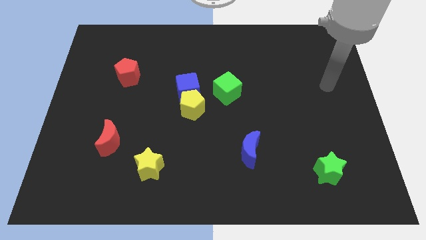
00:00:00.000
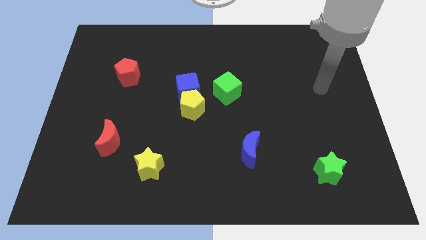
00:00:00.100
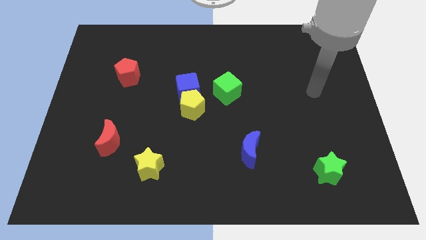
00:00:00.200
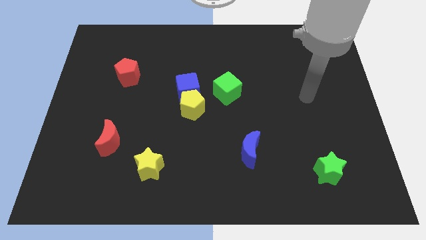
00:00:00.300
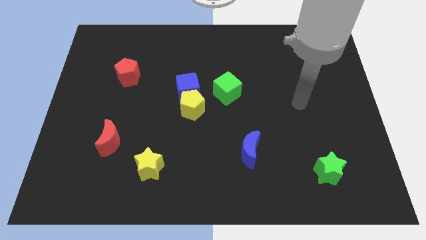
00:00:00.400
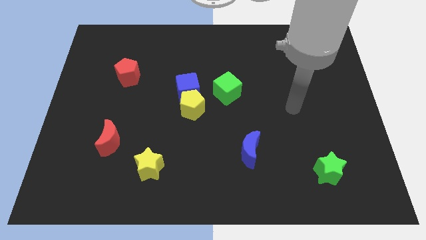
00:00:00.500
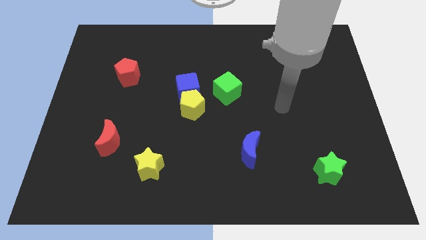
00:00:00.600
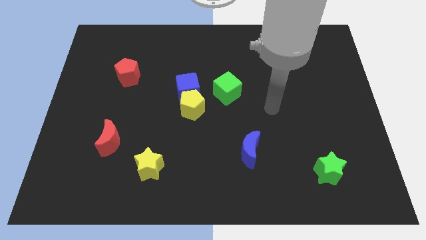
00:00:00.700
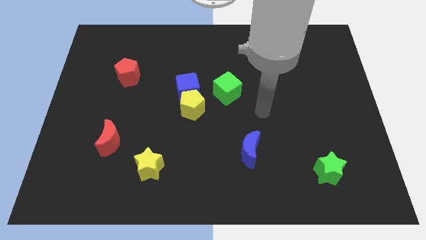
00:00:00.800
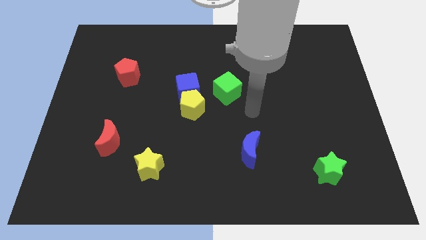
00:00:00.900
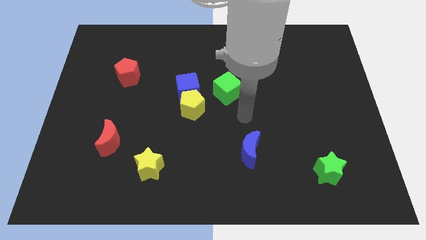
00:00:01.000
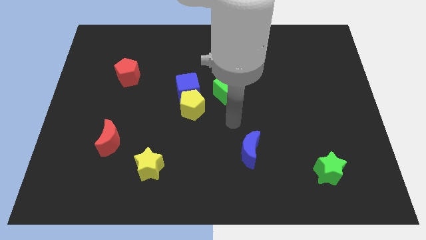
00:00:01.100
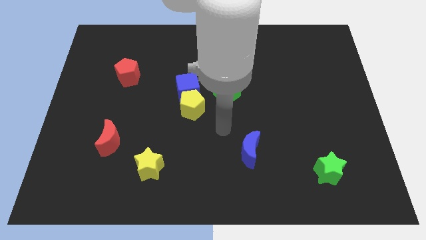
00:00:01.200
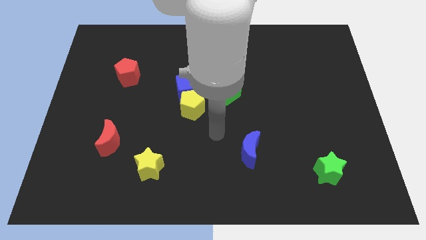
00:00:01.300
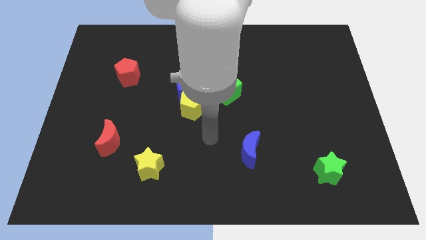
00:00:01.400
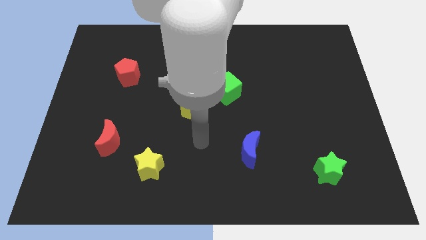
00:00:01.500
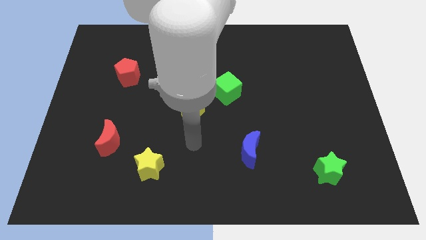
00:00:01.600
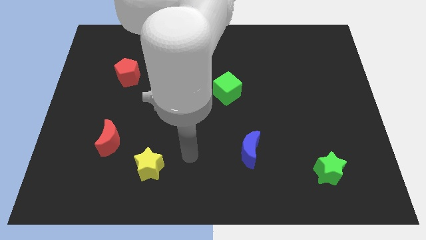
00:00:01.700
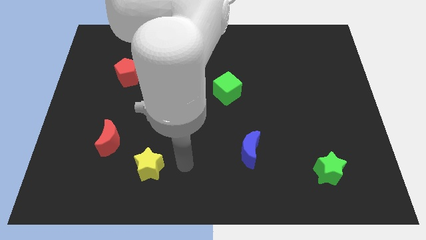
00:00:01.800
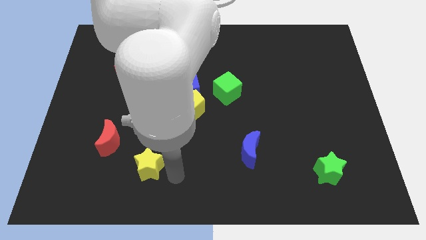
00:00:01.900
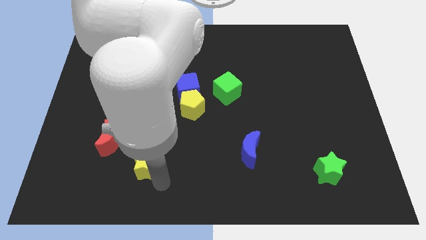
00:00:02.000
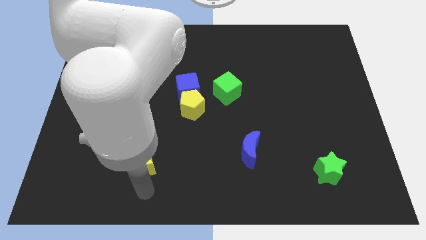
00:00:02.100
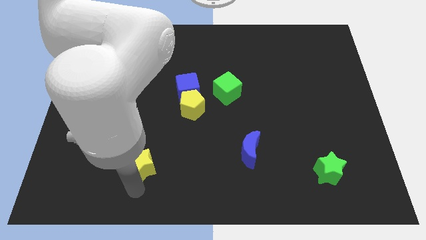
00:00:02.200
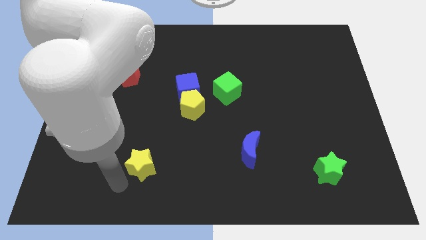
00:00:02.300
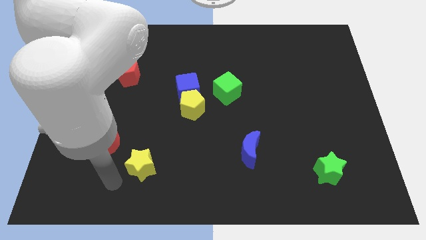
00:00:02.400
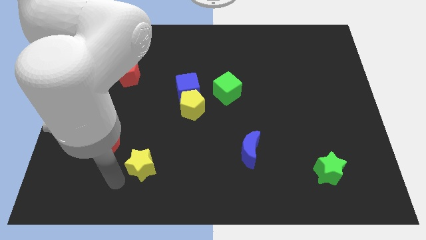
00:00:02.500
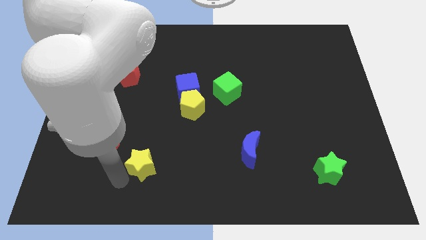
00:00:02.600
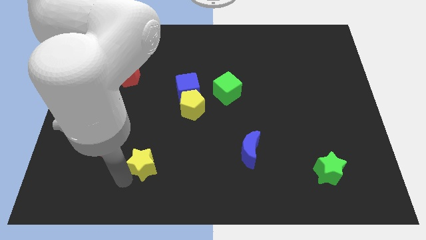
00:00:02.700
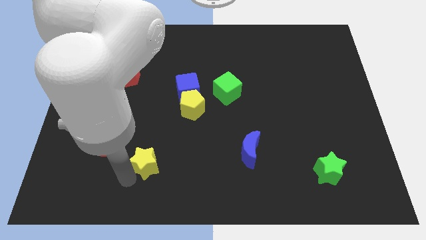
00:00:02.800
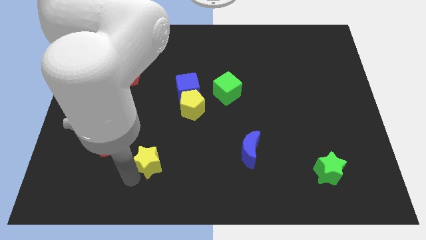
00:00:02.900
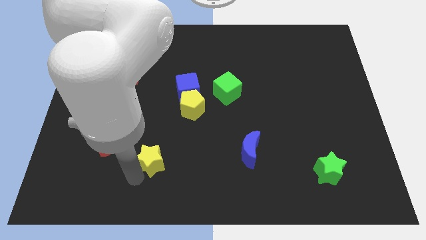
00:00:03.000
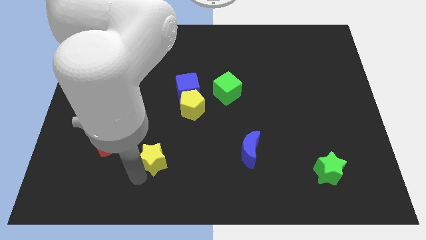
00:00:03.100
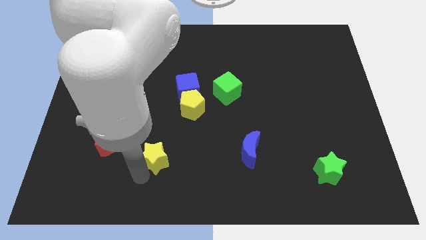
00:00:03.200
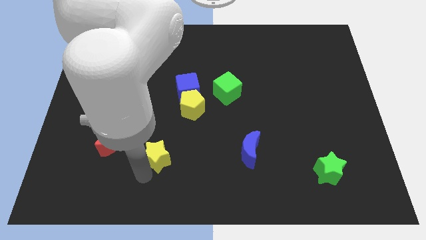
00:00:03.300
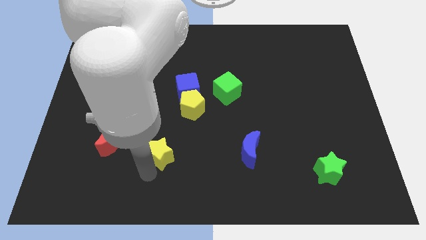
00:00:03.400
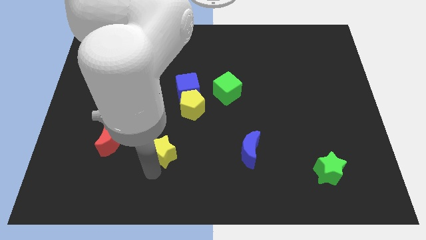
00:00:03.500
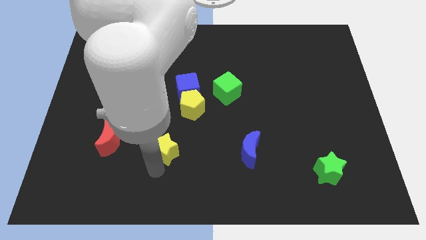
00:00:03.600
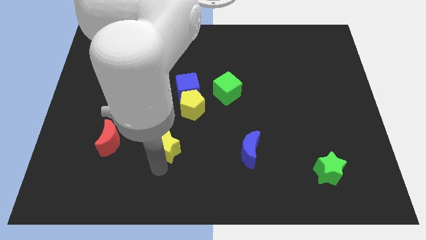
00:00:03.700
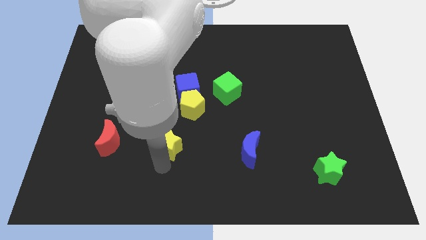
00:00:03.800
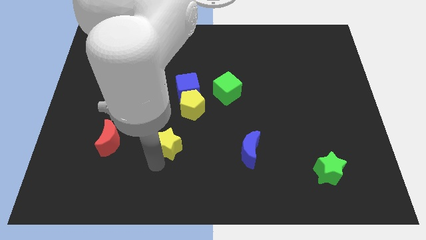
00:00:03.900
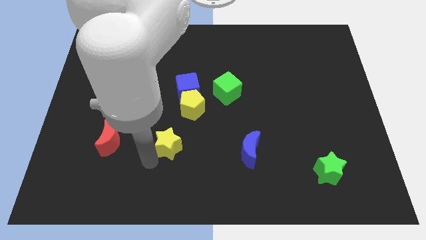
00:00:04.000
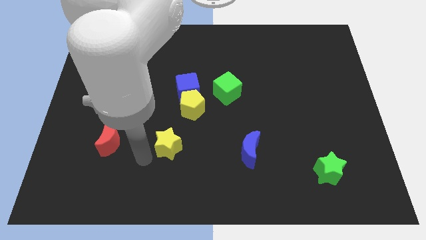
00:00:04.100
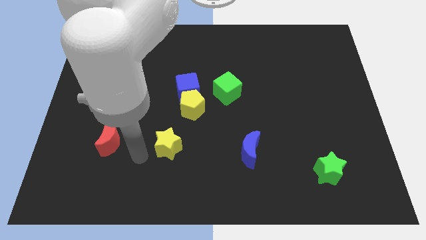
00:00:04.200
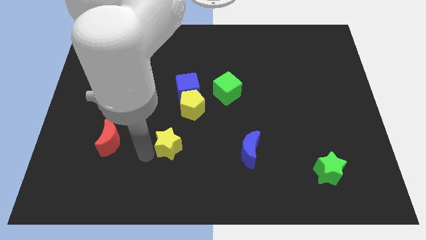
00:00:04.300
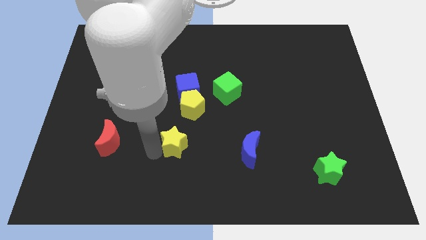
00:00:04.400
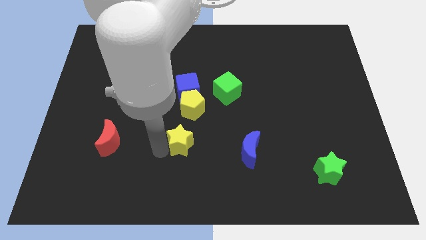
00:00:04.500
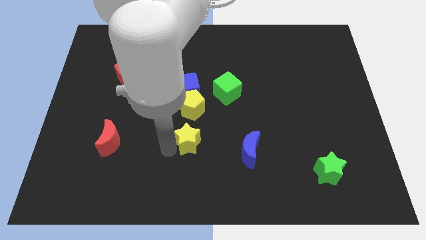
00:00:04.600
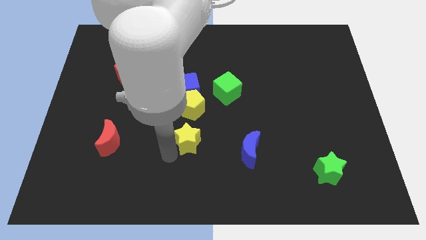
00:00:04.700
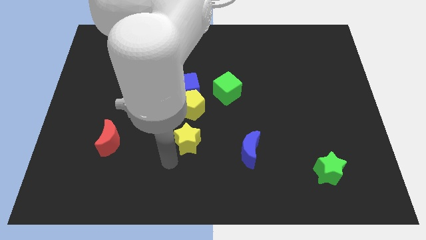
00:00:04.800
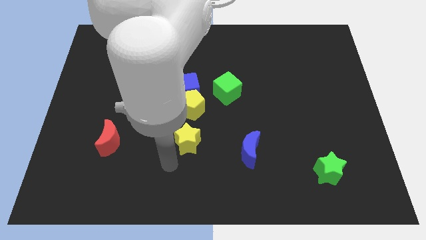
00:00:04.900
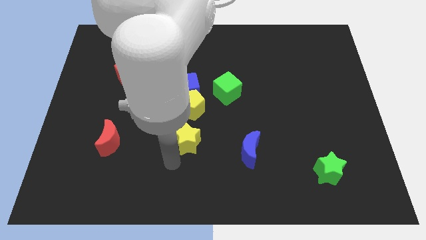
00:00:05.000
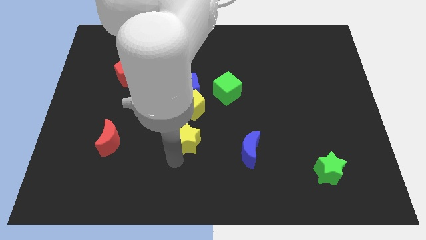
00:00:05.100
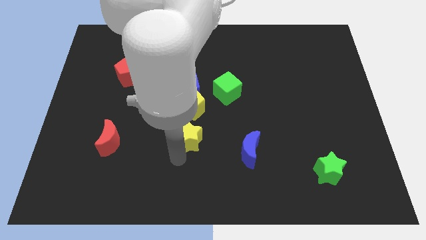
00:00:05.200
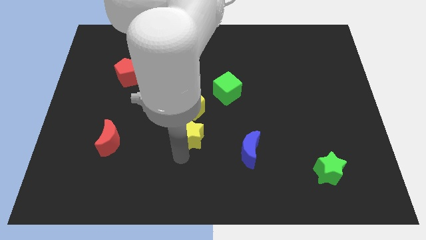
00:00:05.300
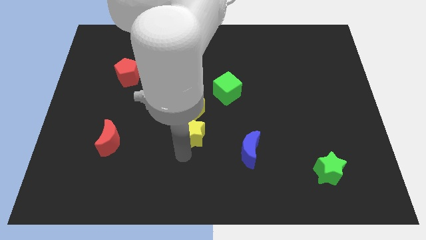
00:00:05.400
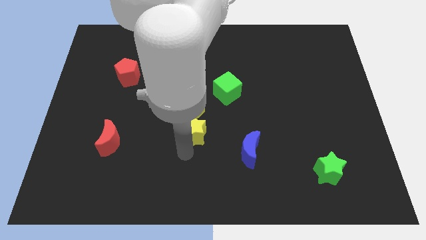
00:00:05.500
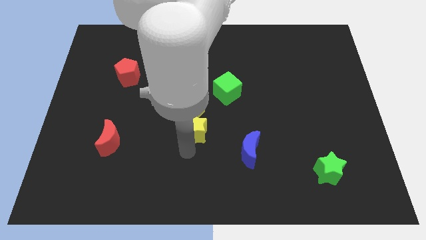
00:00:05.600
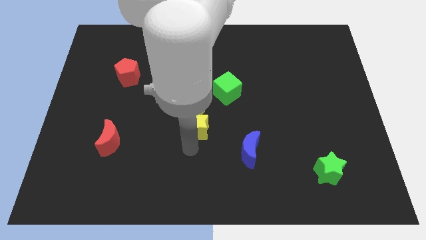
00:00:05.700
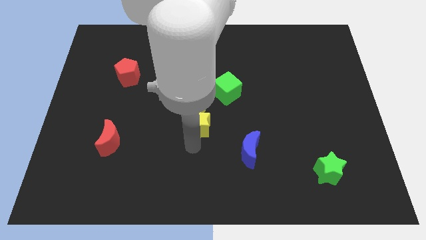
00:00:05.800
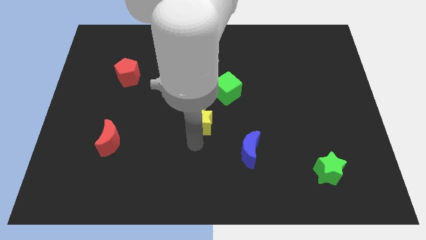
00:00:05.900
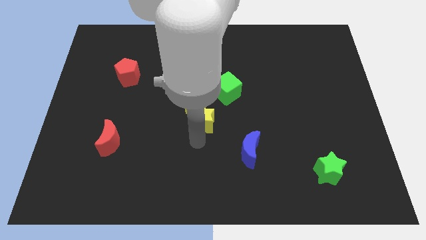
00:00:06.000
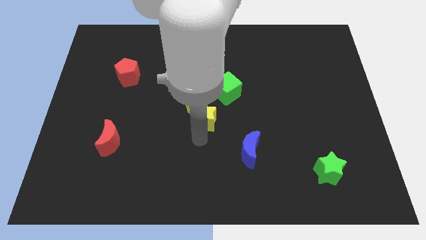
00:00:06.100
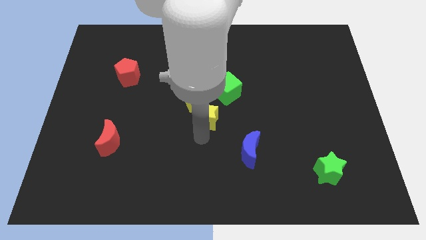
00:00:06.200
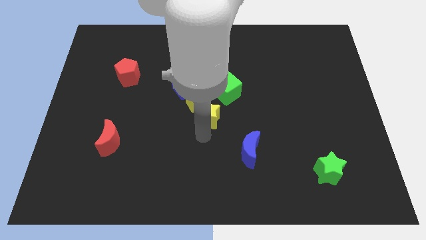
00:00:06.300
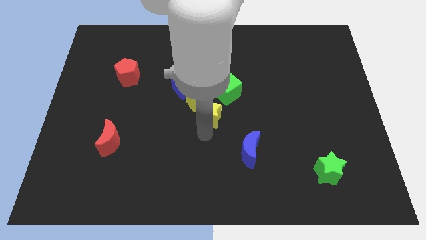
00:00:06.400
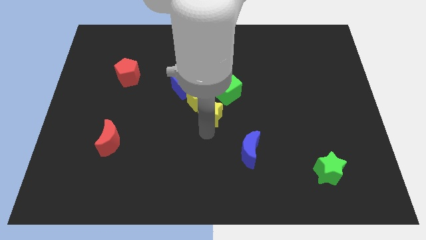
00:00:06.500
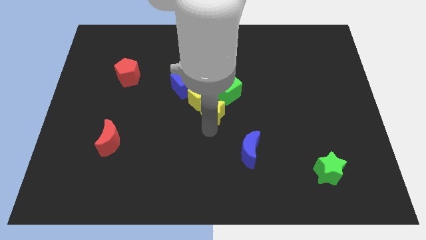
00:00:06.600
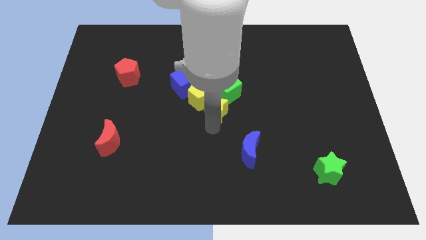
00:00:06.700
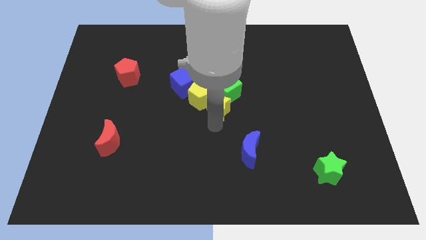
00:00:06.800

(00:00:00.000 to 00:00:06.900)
put the yellow star towards the green cube

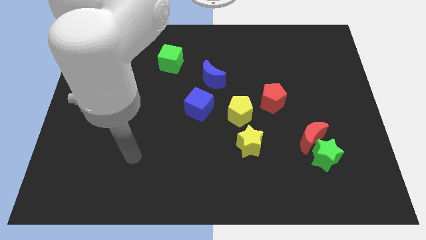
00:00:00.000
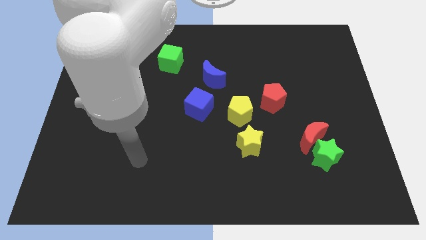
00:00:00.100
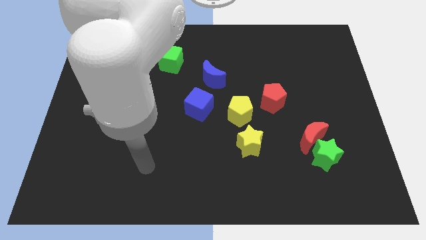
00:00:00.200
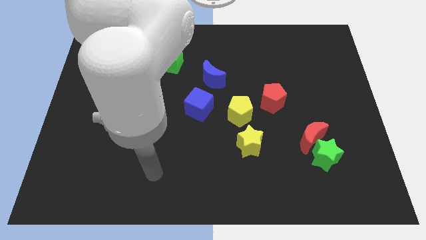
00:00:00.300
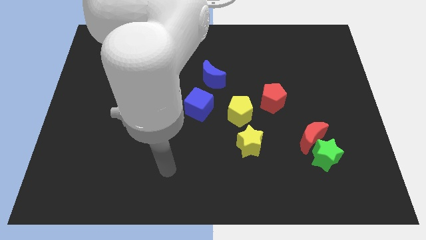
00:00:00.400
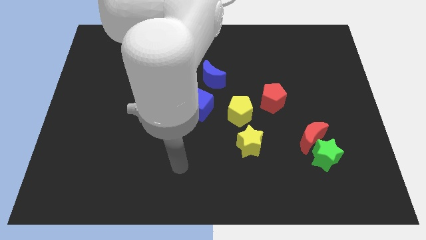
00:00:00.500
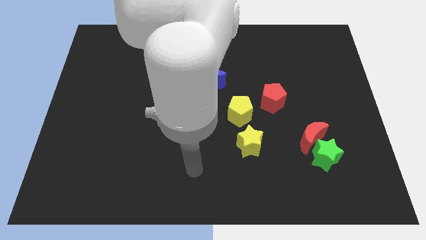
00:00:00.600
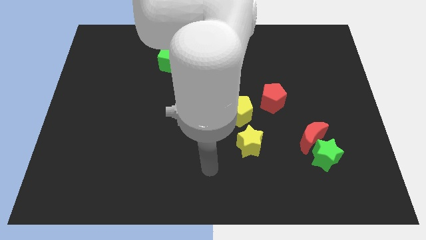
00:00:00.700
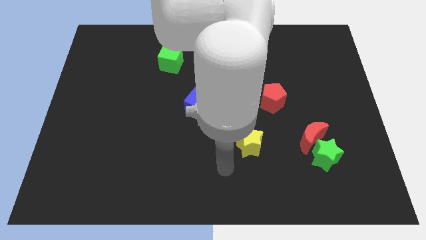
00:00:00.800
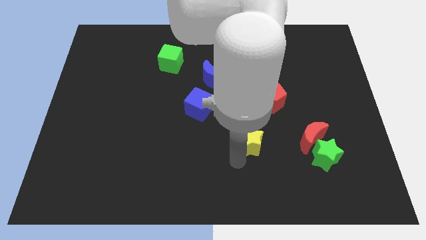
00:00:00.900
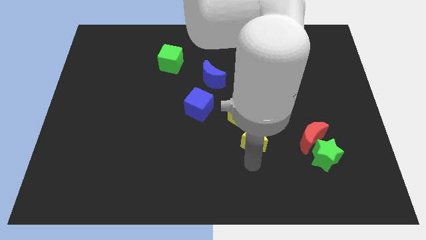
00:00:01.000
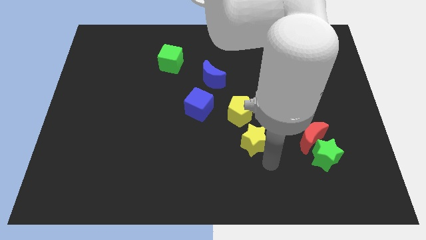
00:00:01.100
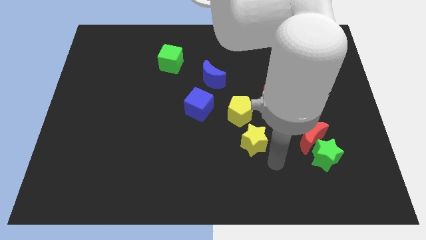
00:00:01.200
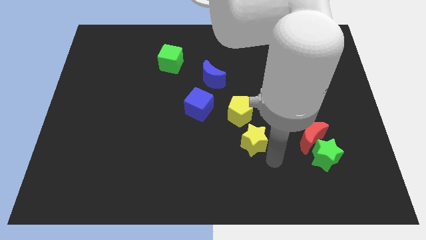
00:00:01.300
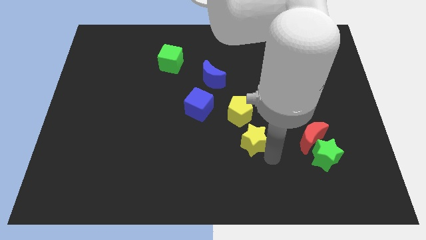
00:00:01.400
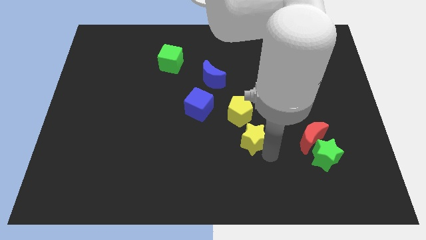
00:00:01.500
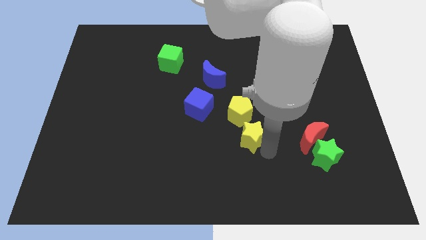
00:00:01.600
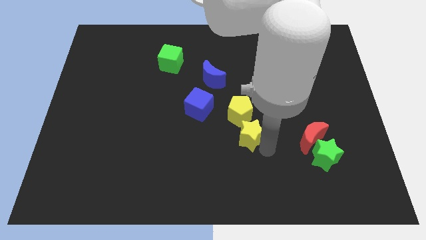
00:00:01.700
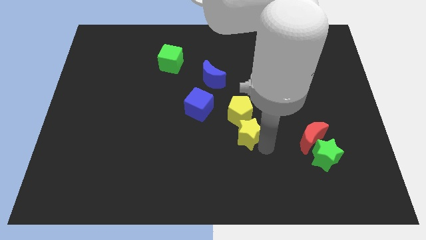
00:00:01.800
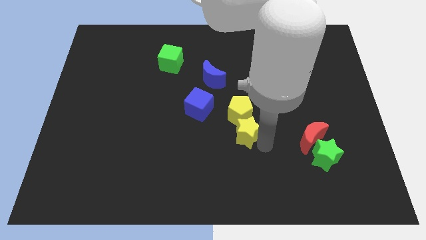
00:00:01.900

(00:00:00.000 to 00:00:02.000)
move the yellow star next to the yellow pentagon
